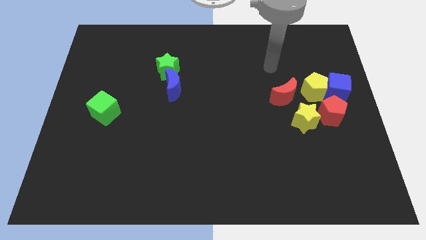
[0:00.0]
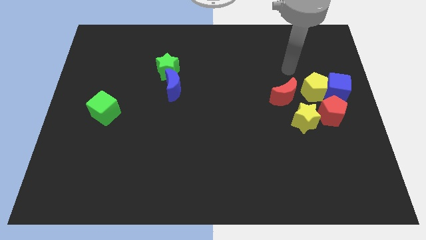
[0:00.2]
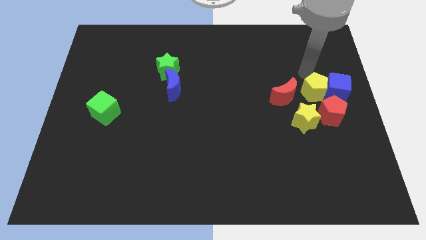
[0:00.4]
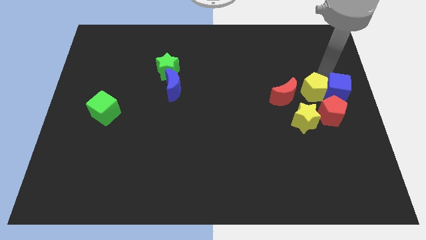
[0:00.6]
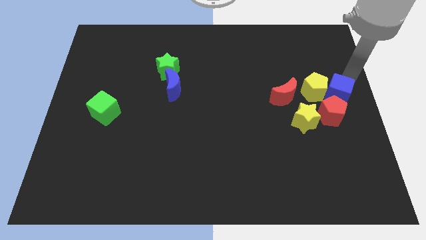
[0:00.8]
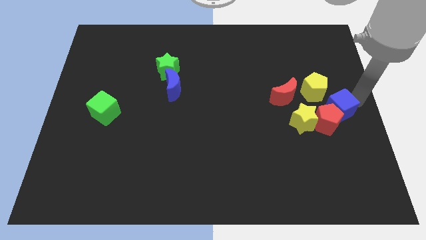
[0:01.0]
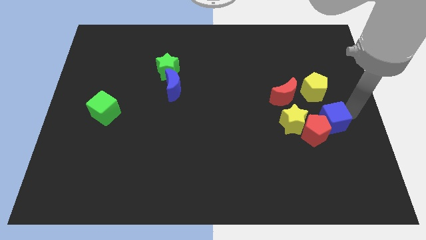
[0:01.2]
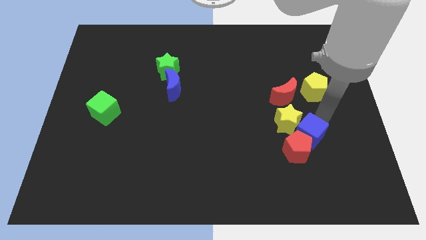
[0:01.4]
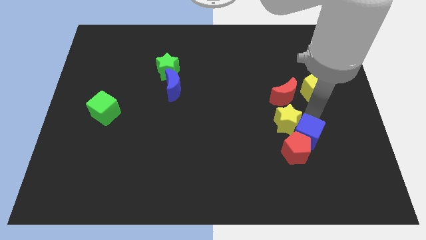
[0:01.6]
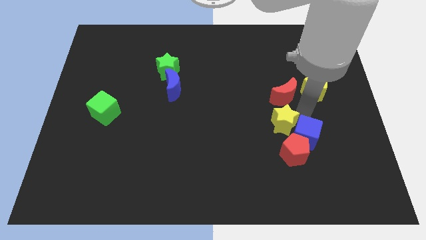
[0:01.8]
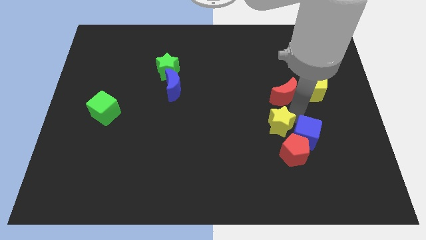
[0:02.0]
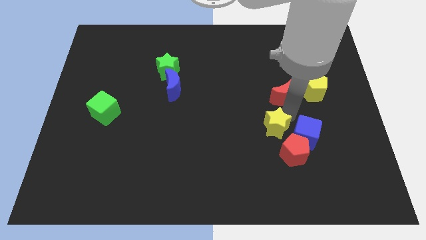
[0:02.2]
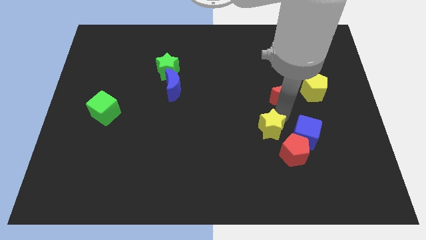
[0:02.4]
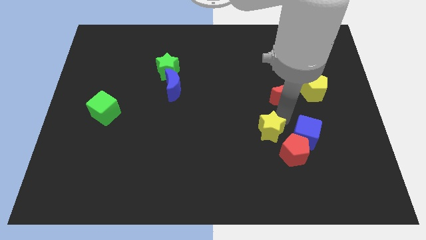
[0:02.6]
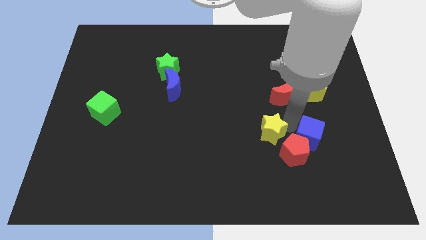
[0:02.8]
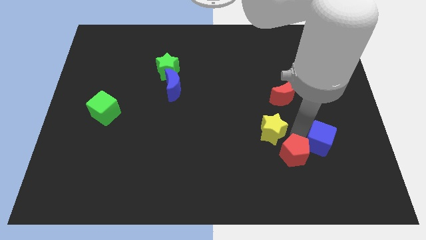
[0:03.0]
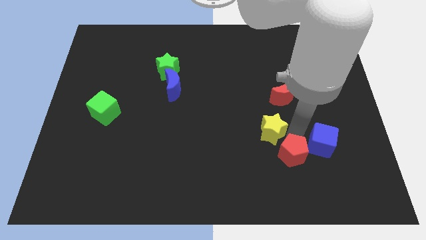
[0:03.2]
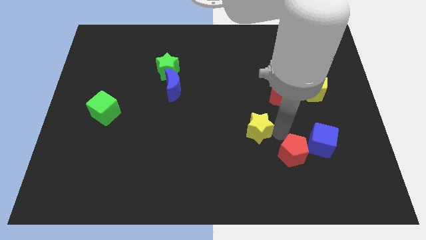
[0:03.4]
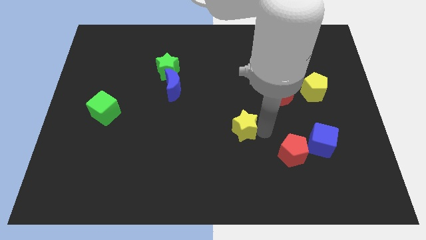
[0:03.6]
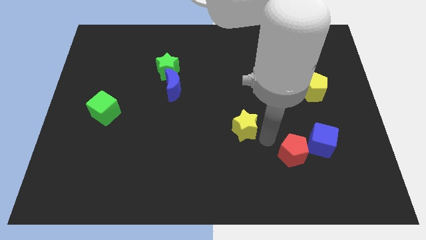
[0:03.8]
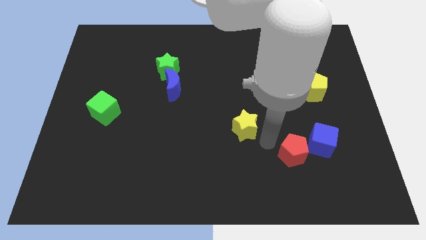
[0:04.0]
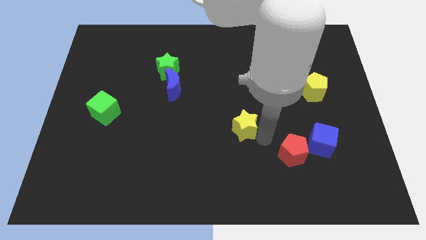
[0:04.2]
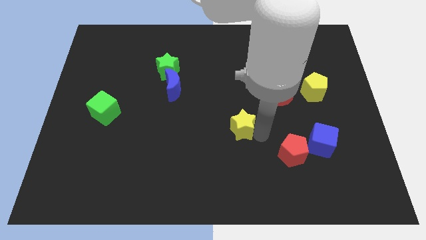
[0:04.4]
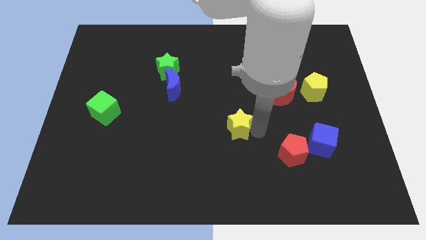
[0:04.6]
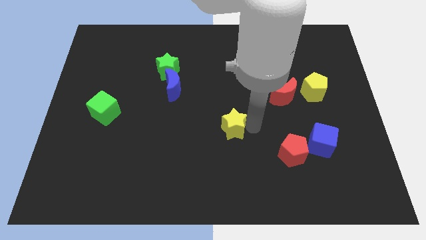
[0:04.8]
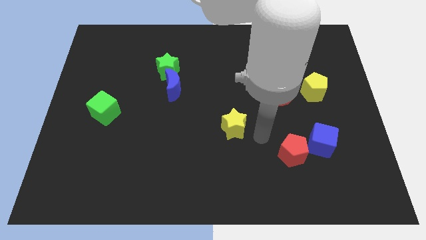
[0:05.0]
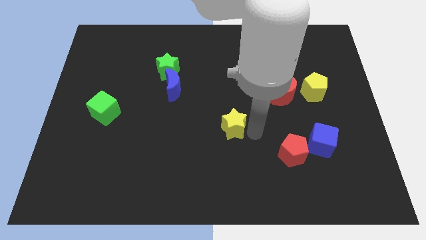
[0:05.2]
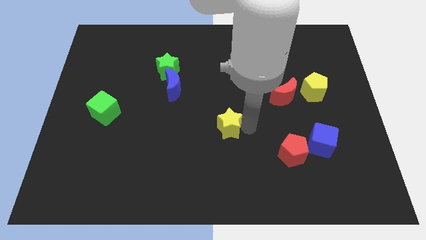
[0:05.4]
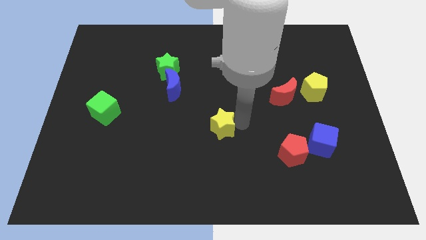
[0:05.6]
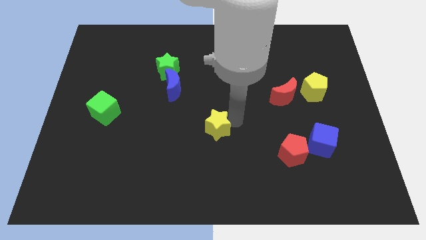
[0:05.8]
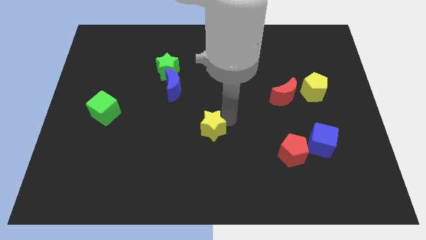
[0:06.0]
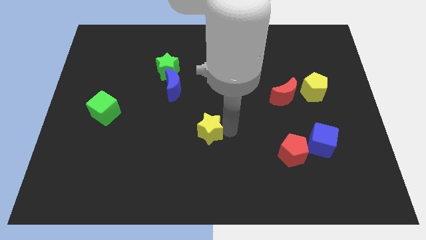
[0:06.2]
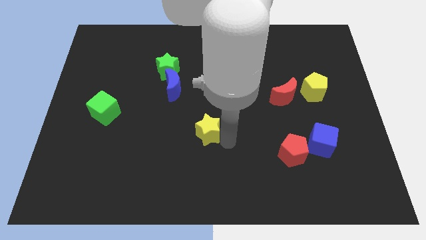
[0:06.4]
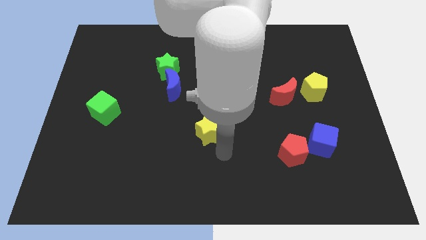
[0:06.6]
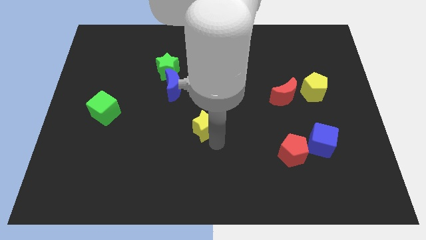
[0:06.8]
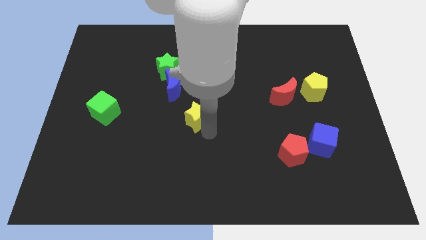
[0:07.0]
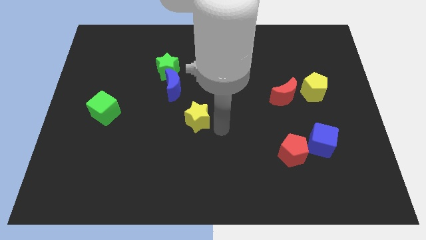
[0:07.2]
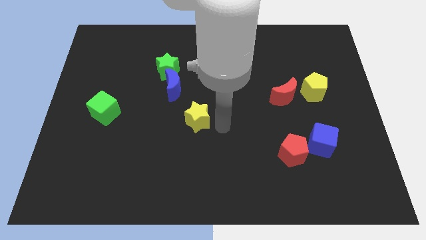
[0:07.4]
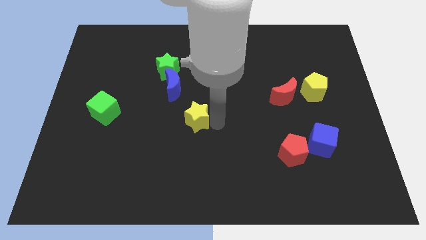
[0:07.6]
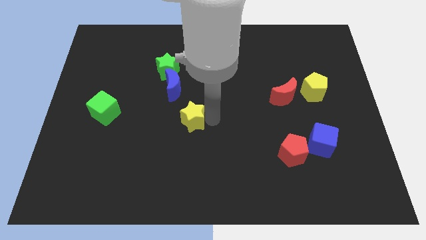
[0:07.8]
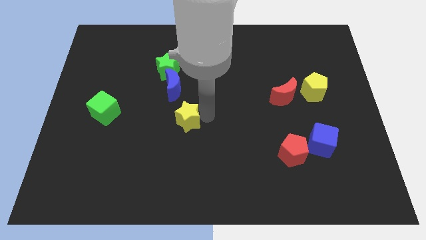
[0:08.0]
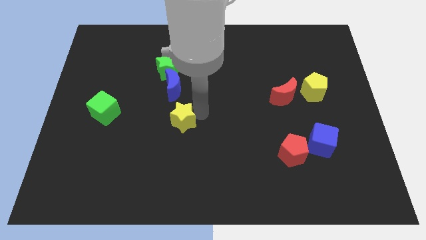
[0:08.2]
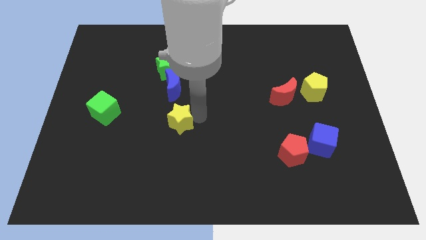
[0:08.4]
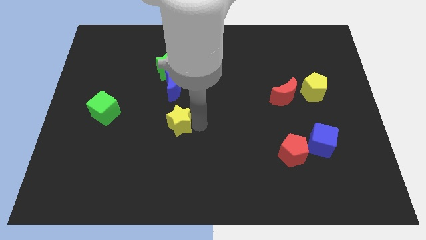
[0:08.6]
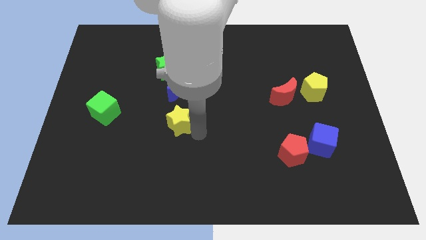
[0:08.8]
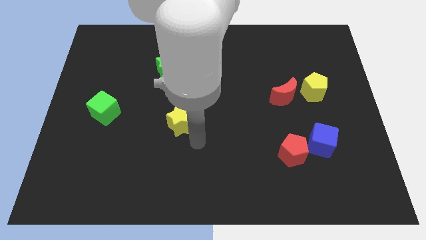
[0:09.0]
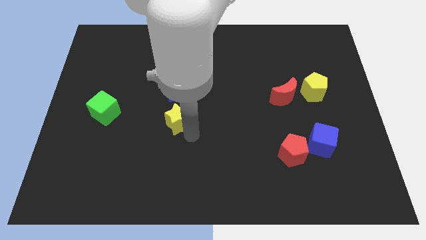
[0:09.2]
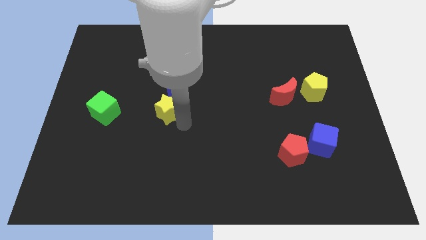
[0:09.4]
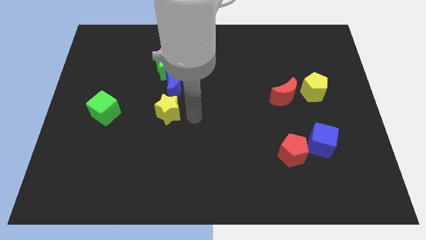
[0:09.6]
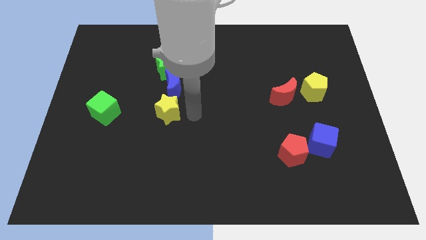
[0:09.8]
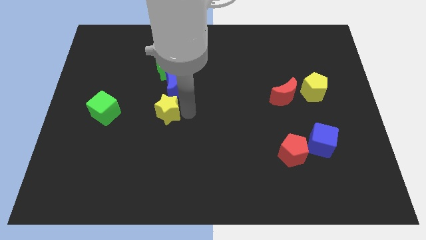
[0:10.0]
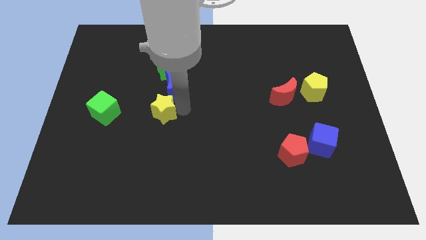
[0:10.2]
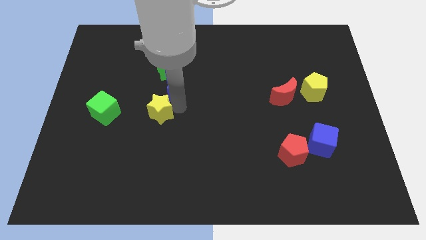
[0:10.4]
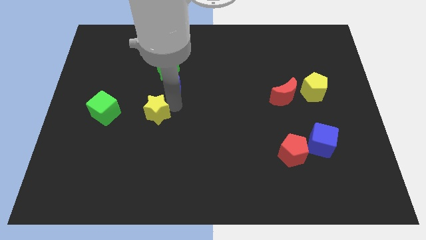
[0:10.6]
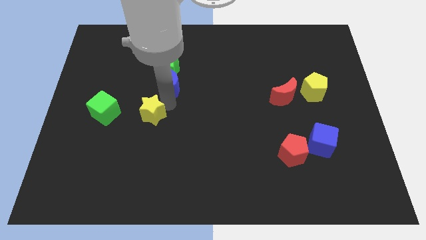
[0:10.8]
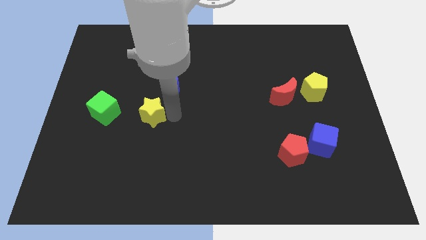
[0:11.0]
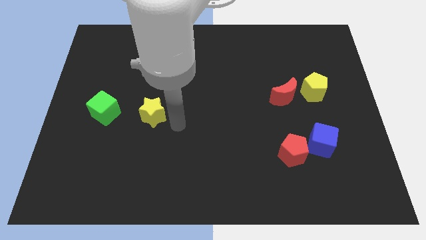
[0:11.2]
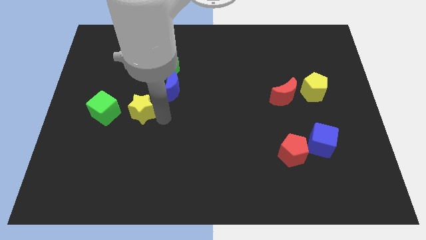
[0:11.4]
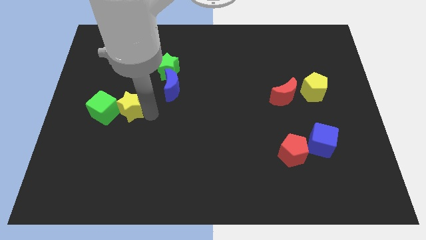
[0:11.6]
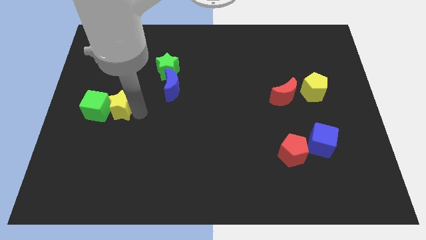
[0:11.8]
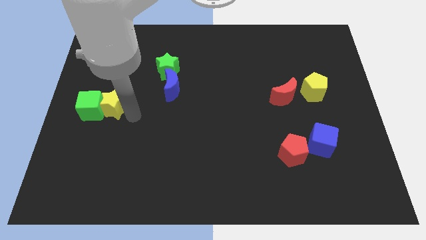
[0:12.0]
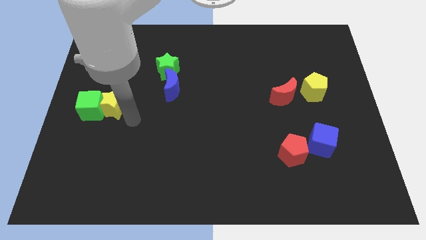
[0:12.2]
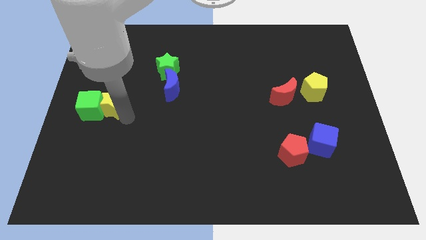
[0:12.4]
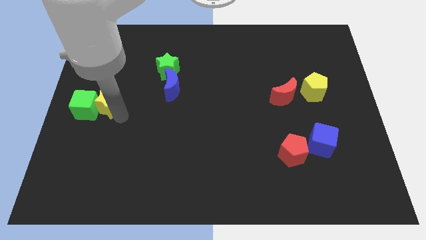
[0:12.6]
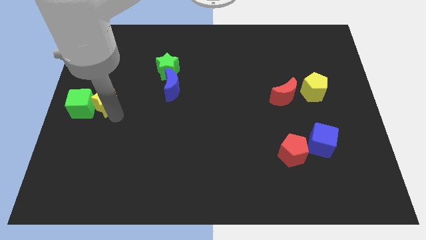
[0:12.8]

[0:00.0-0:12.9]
put the yellow star to the center left
